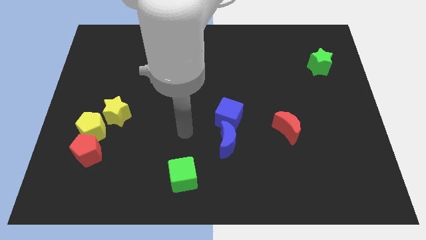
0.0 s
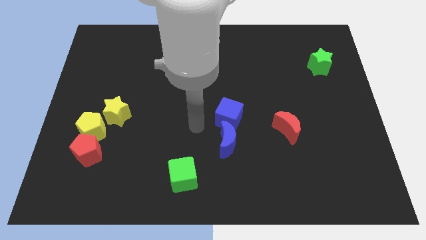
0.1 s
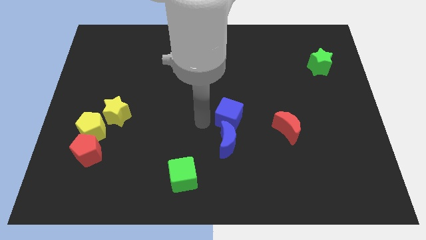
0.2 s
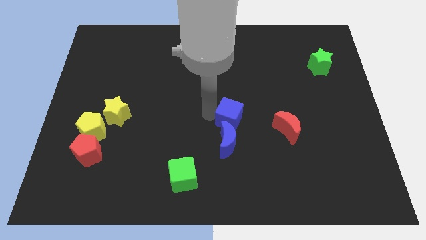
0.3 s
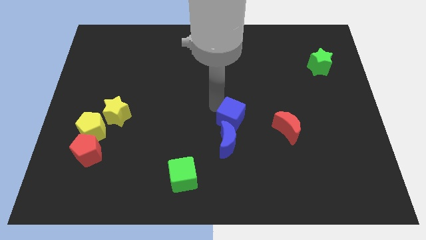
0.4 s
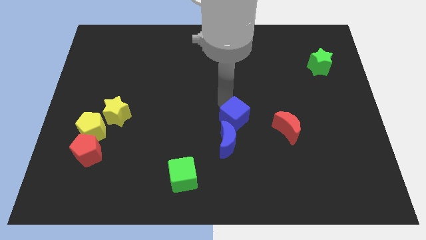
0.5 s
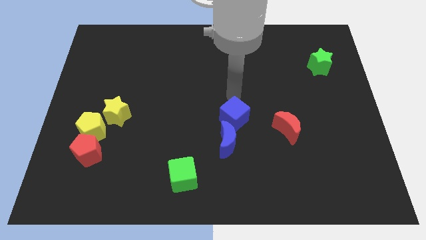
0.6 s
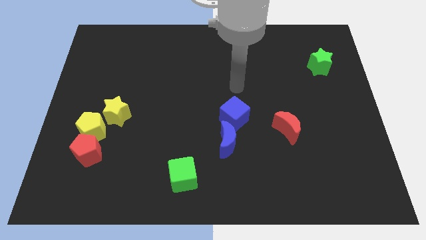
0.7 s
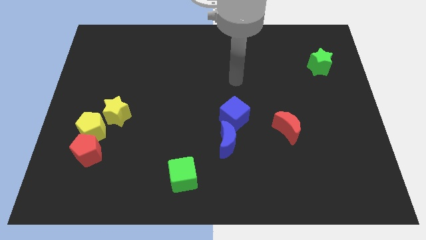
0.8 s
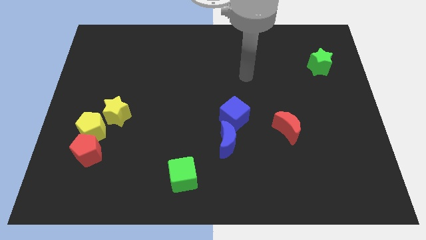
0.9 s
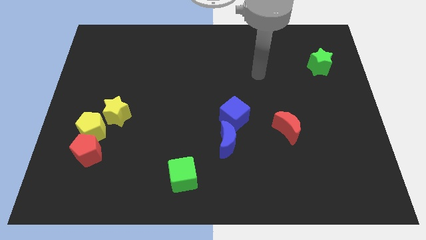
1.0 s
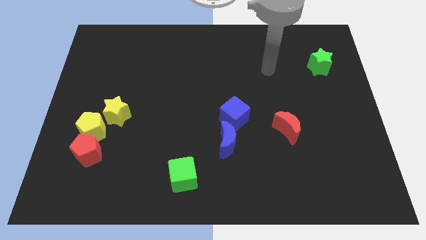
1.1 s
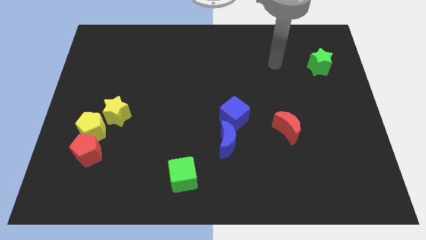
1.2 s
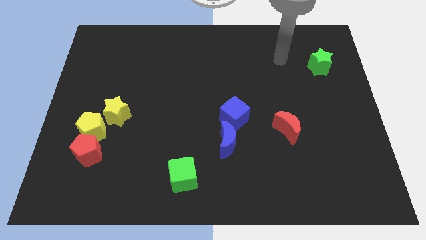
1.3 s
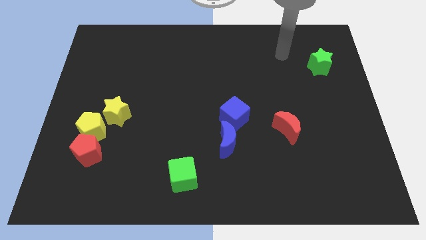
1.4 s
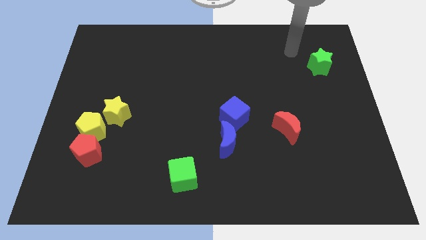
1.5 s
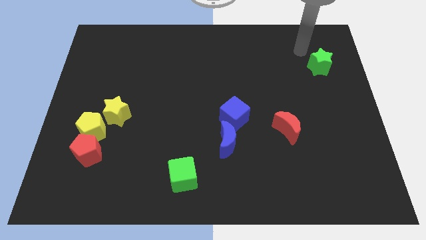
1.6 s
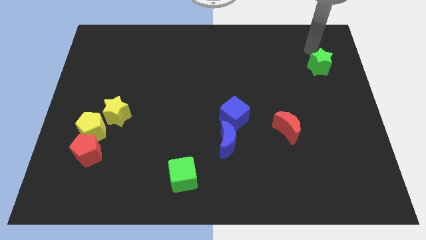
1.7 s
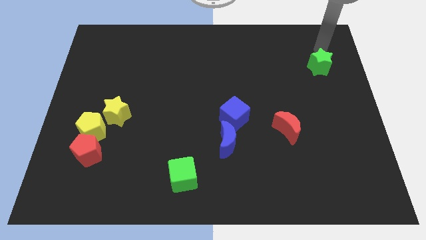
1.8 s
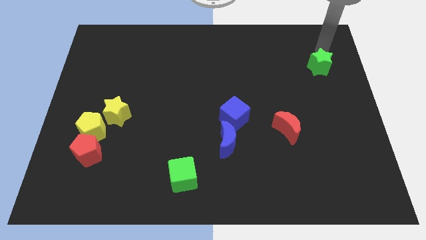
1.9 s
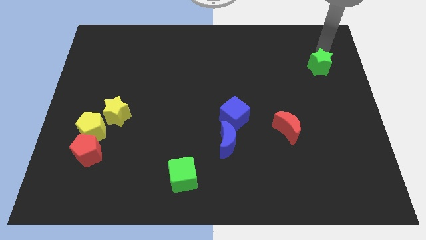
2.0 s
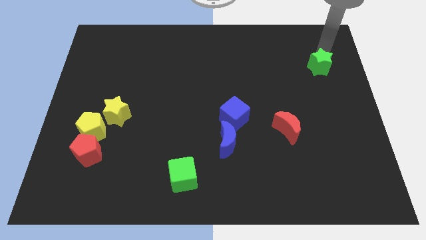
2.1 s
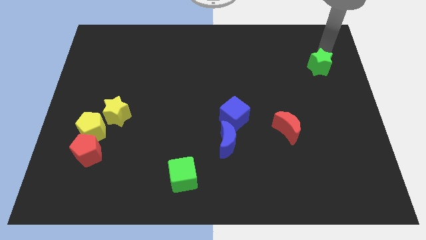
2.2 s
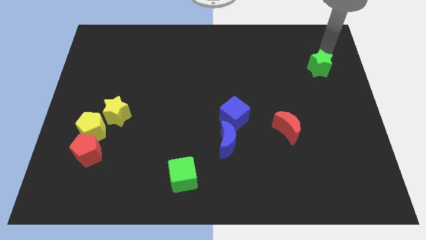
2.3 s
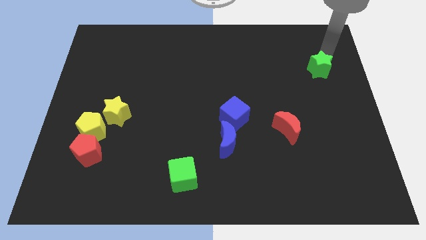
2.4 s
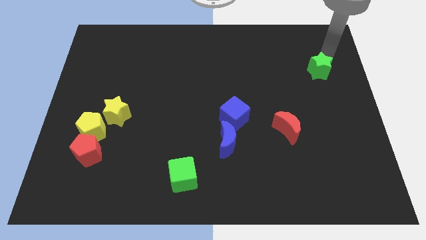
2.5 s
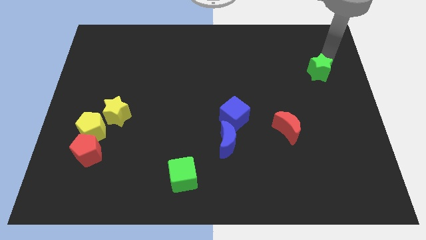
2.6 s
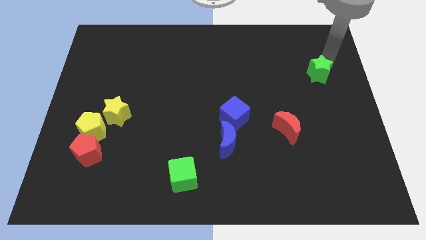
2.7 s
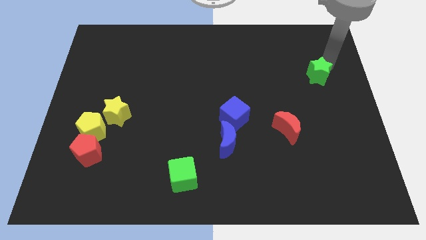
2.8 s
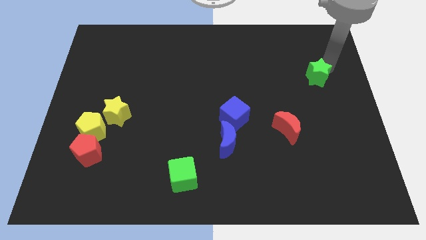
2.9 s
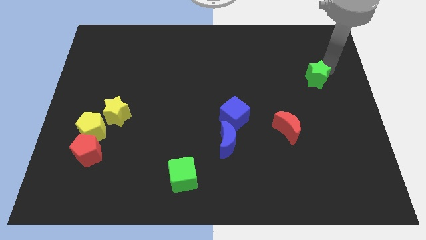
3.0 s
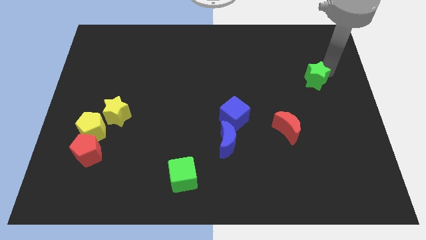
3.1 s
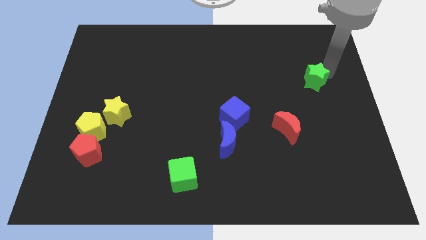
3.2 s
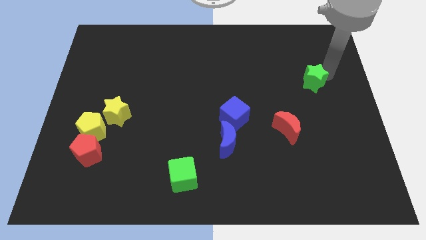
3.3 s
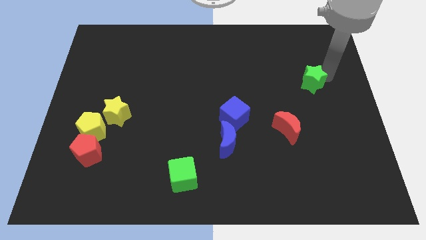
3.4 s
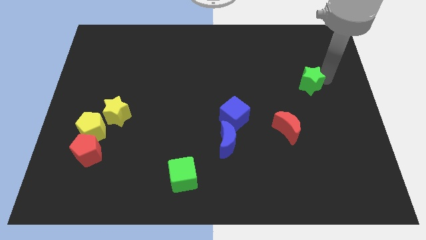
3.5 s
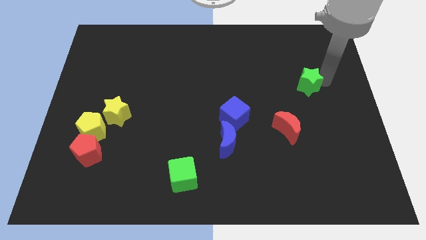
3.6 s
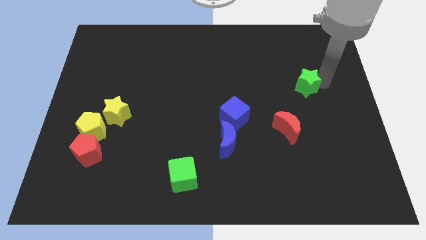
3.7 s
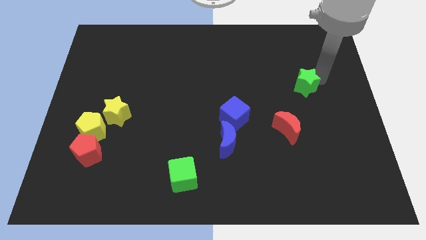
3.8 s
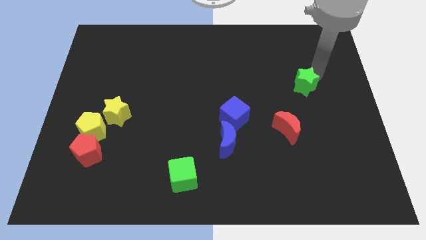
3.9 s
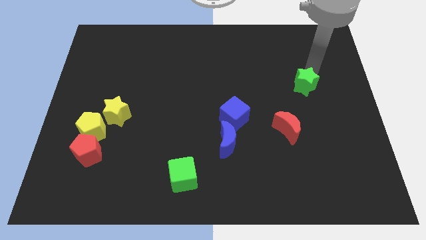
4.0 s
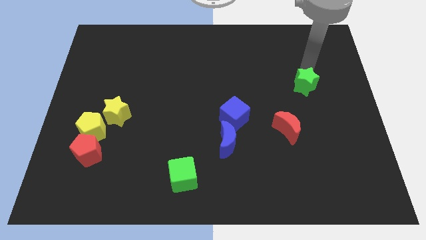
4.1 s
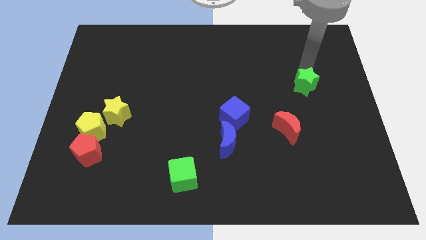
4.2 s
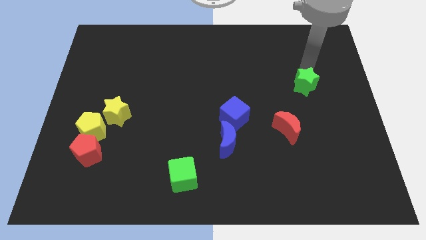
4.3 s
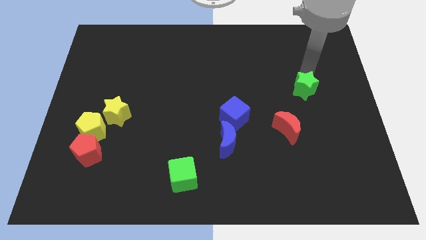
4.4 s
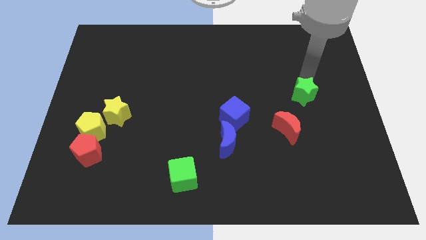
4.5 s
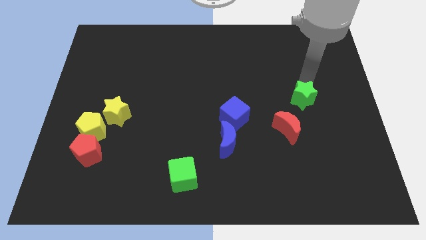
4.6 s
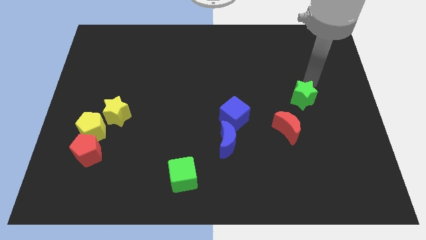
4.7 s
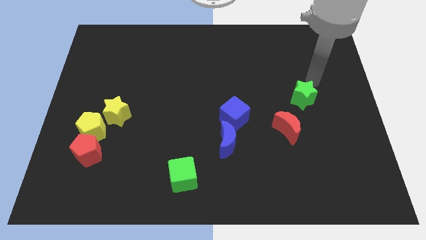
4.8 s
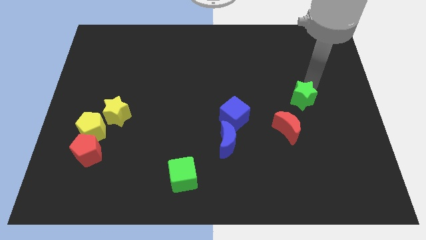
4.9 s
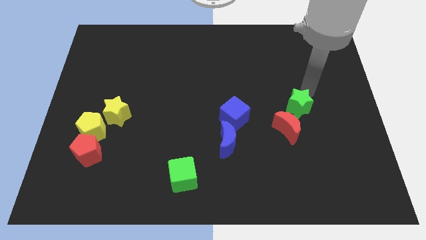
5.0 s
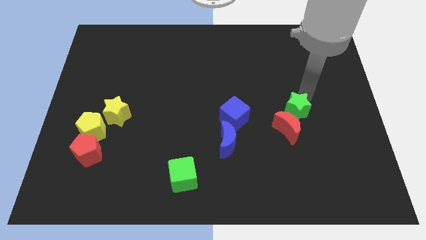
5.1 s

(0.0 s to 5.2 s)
slide the green star next to the red moon

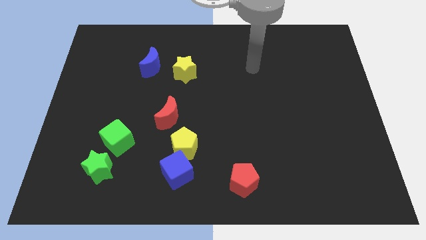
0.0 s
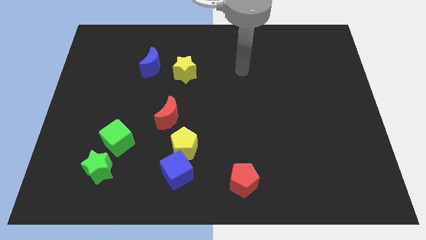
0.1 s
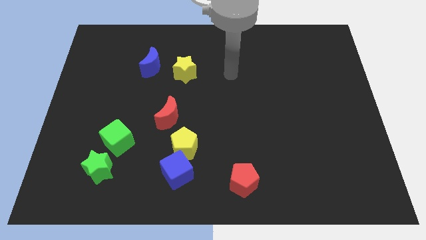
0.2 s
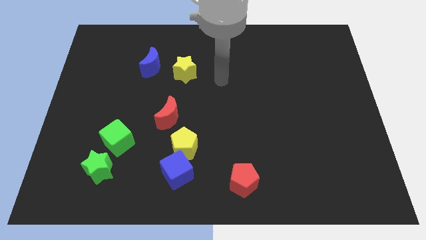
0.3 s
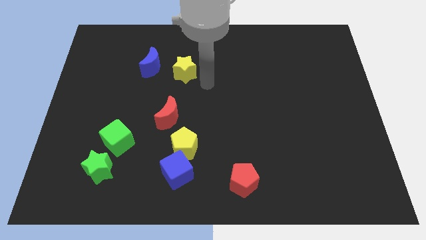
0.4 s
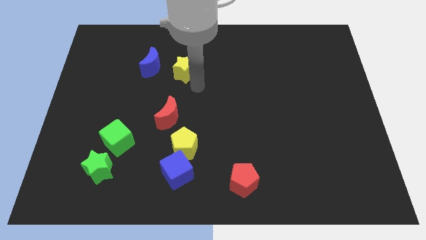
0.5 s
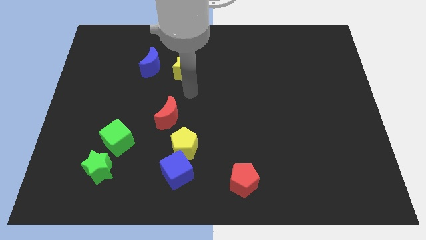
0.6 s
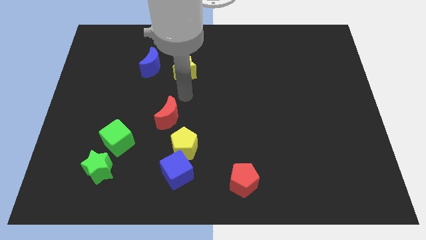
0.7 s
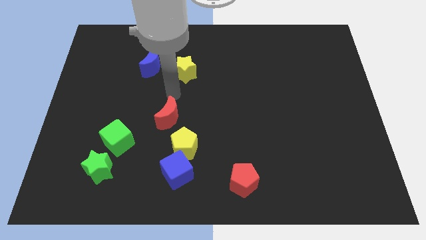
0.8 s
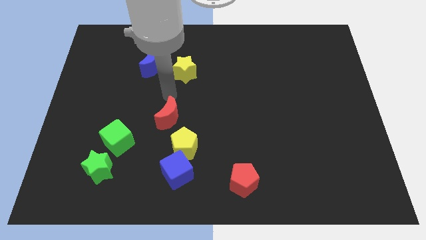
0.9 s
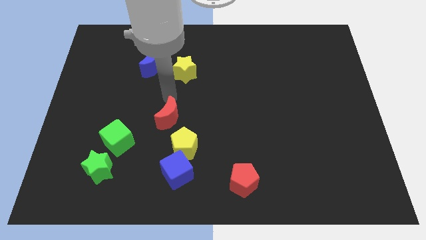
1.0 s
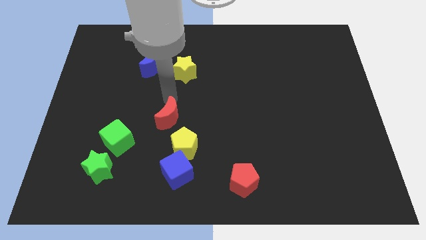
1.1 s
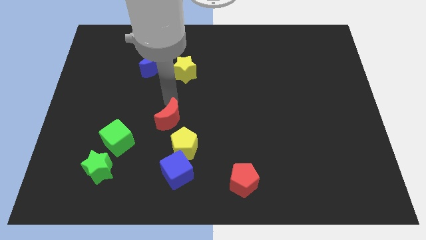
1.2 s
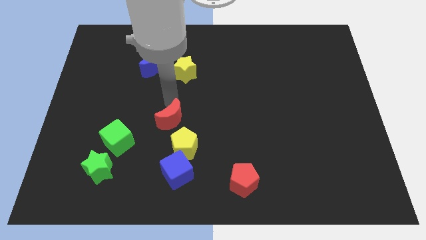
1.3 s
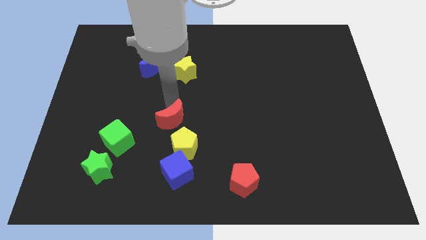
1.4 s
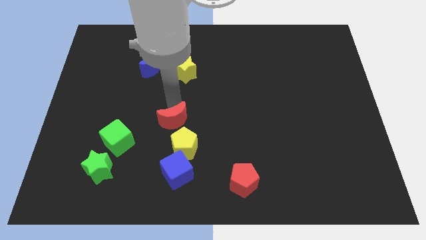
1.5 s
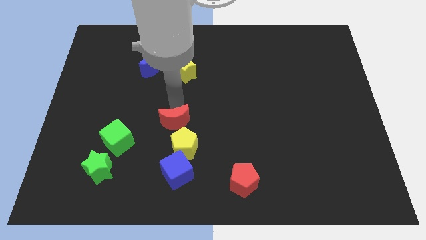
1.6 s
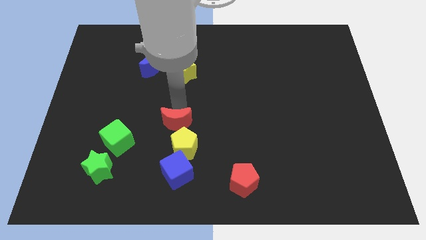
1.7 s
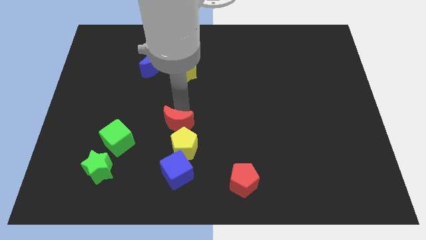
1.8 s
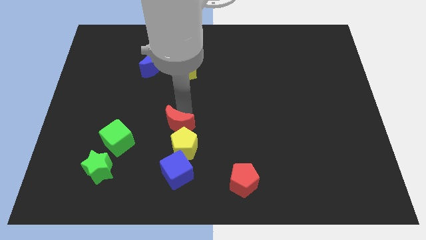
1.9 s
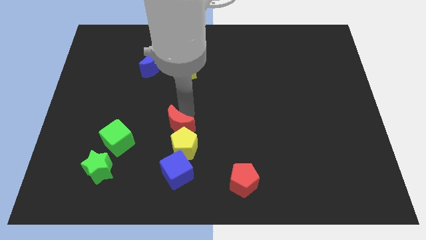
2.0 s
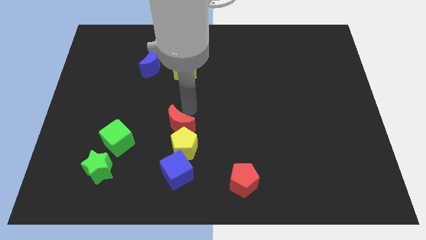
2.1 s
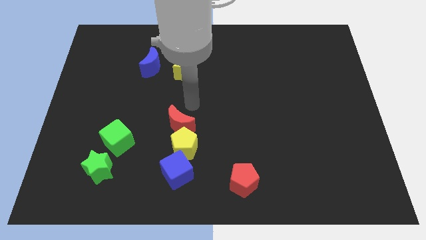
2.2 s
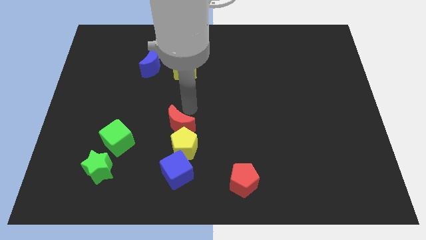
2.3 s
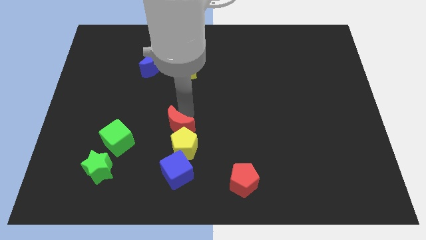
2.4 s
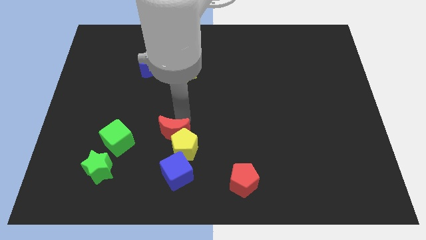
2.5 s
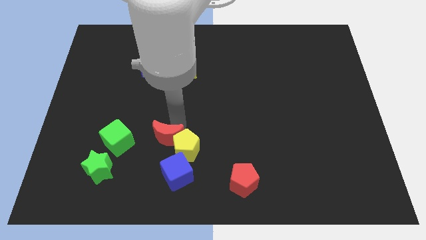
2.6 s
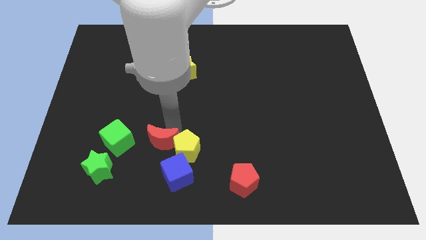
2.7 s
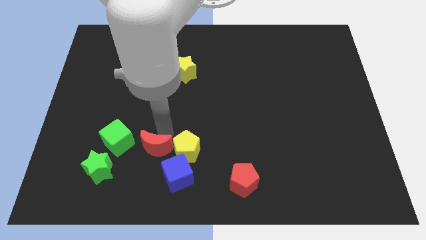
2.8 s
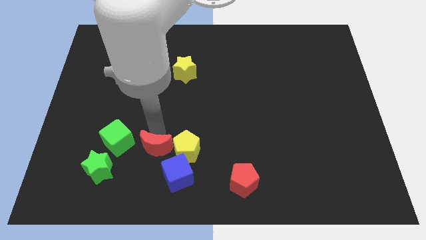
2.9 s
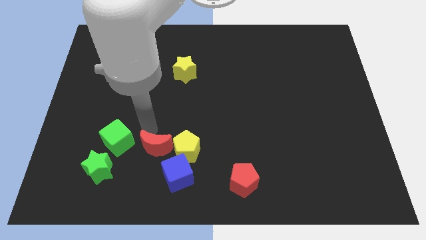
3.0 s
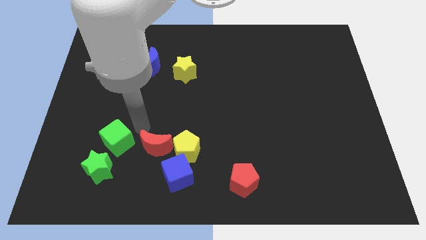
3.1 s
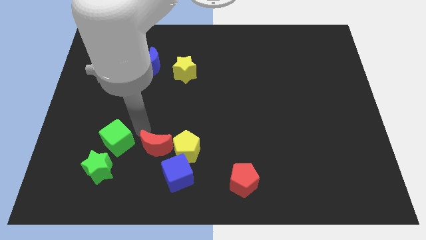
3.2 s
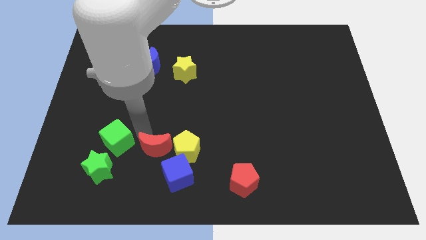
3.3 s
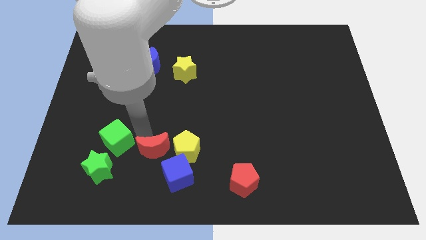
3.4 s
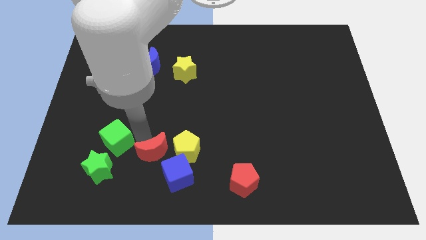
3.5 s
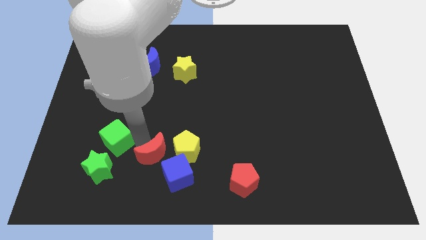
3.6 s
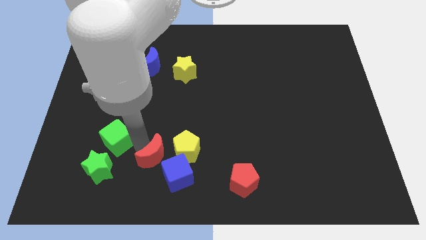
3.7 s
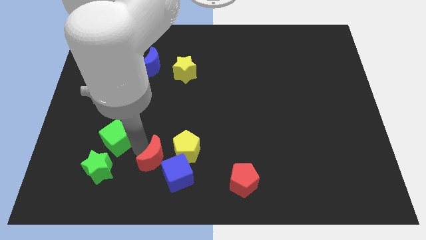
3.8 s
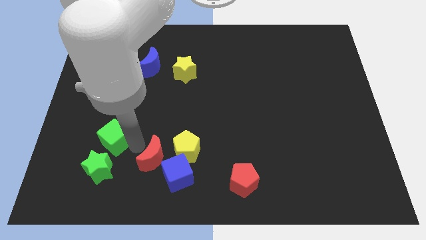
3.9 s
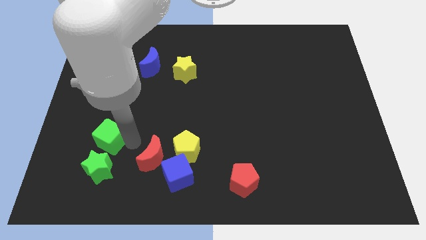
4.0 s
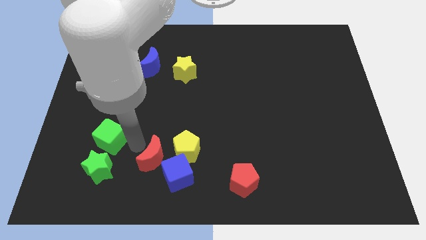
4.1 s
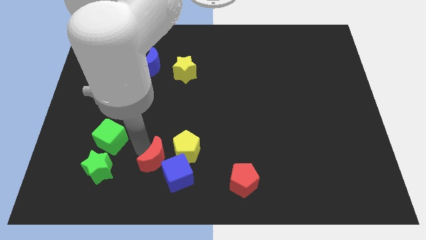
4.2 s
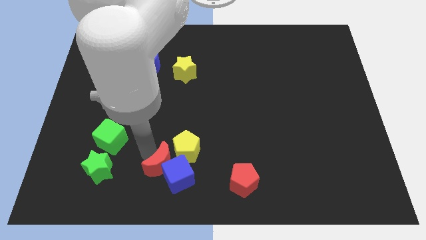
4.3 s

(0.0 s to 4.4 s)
put the red moon towards the blue cube
